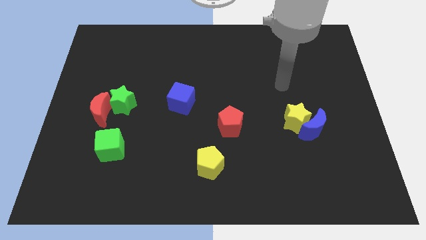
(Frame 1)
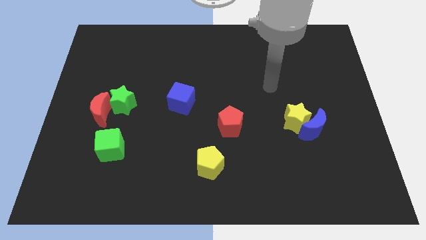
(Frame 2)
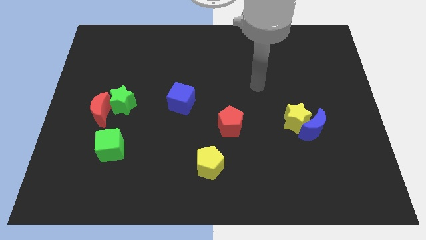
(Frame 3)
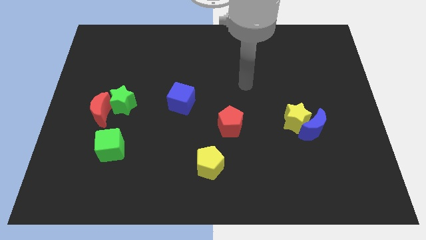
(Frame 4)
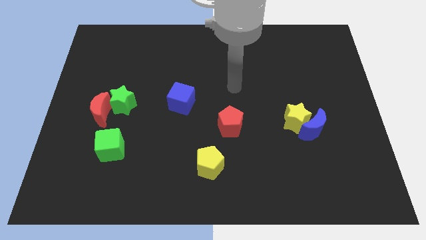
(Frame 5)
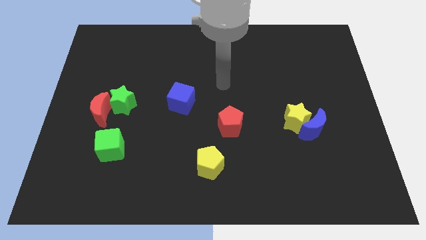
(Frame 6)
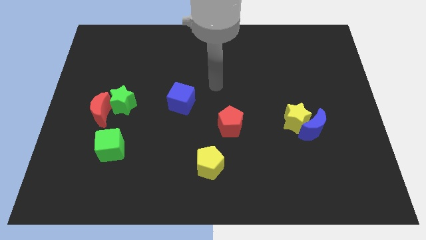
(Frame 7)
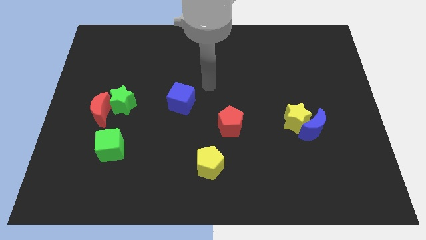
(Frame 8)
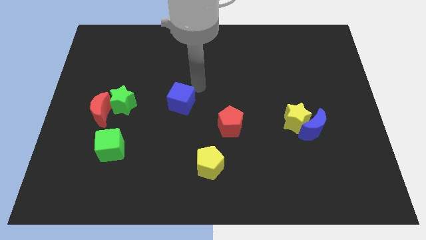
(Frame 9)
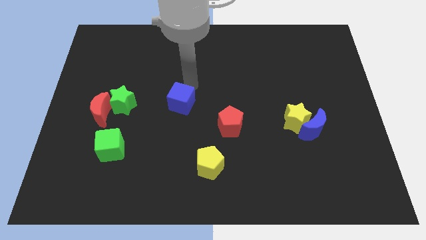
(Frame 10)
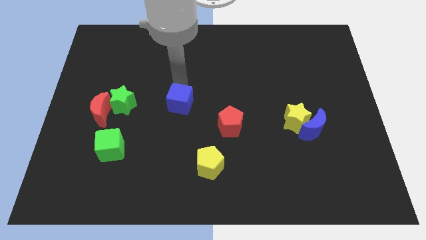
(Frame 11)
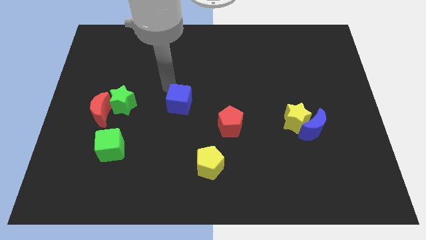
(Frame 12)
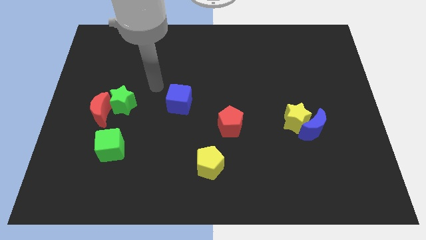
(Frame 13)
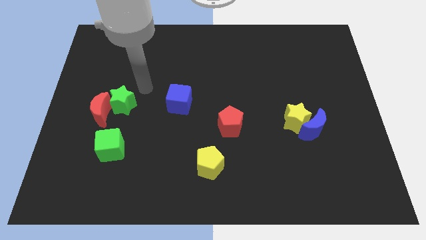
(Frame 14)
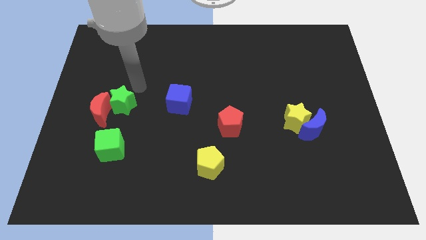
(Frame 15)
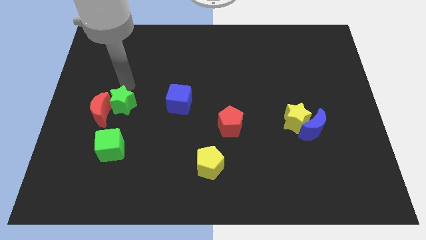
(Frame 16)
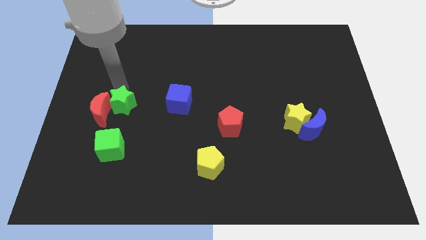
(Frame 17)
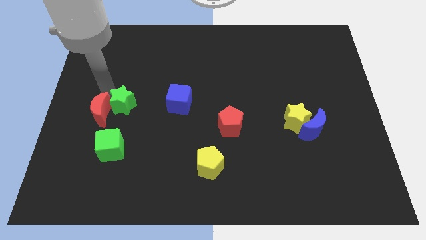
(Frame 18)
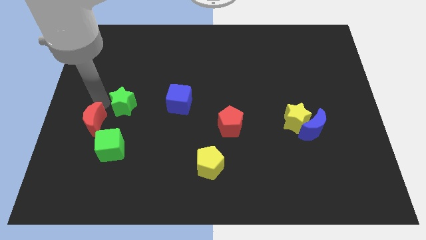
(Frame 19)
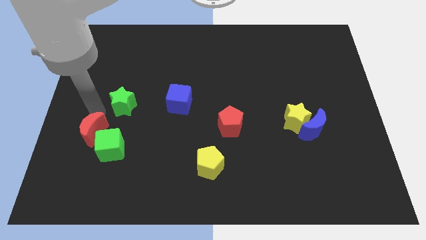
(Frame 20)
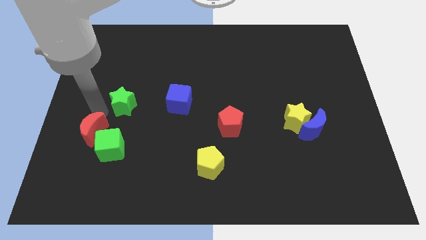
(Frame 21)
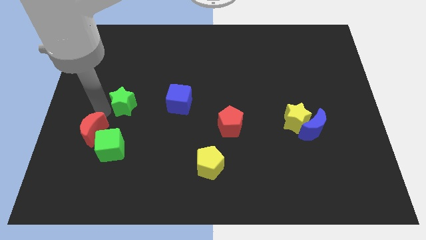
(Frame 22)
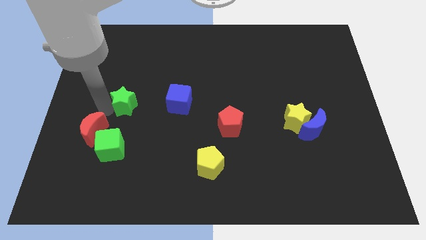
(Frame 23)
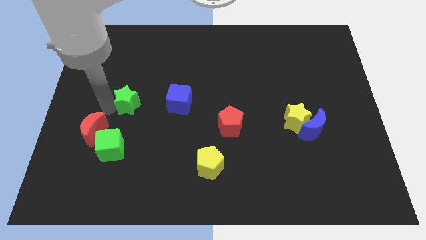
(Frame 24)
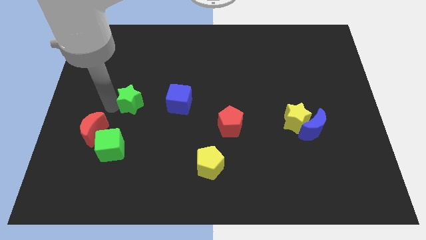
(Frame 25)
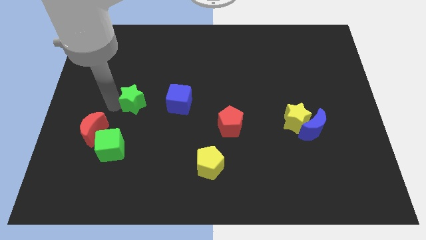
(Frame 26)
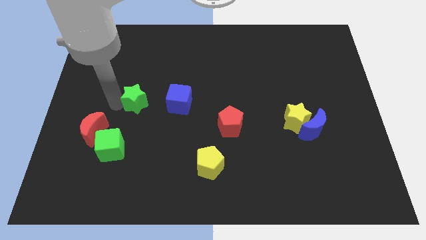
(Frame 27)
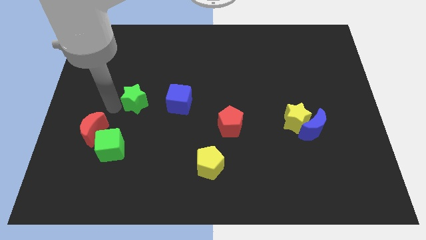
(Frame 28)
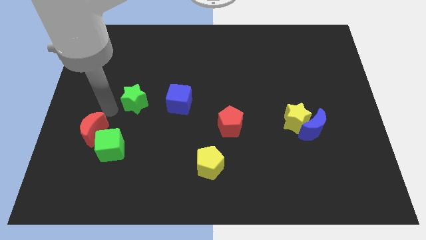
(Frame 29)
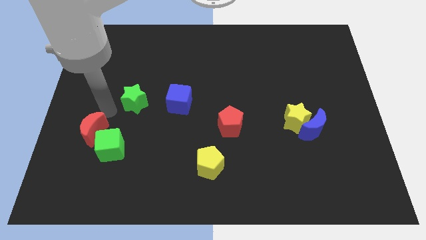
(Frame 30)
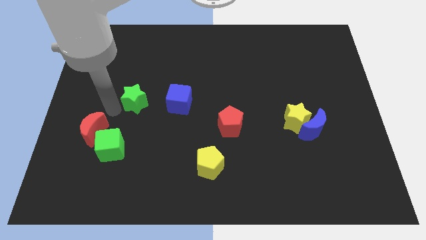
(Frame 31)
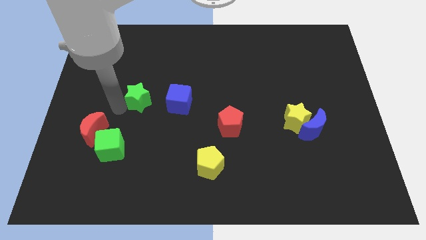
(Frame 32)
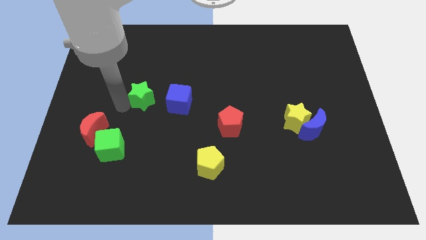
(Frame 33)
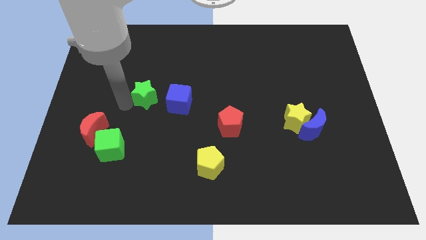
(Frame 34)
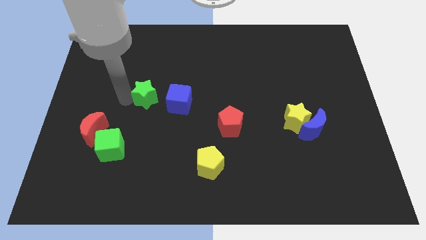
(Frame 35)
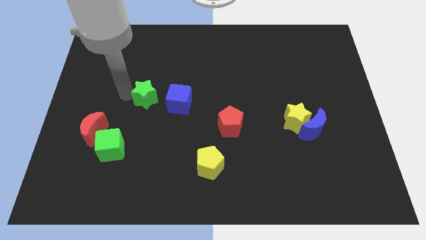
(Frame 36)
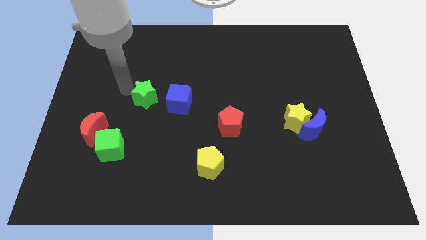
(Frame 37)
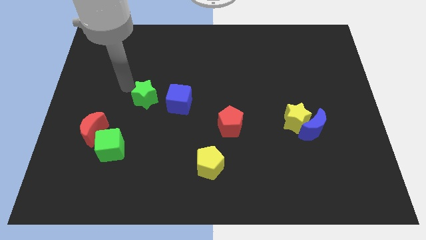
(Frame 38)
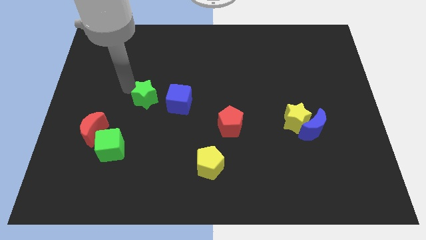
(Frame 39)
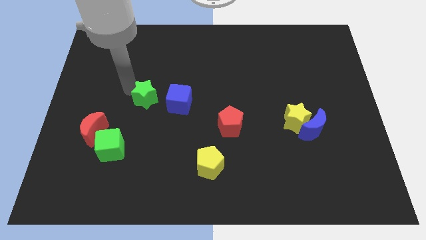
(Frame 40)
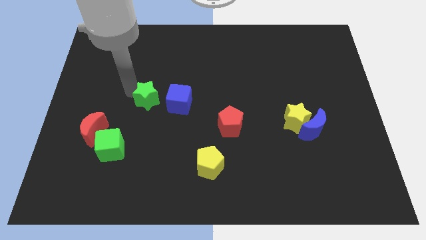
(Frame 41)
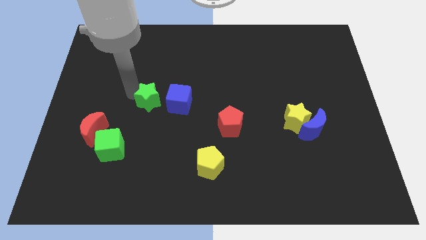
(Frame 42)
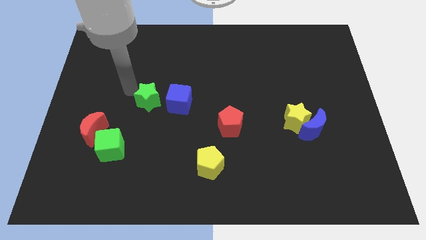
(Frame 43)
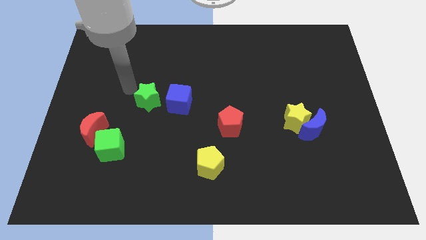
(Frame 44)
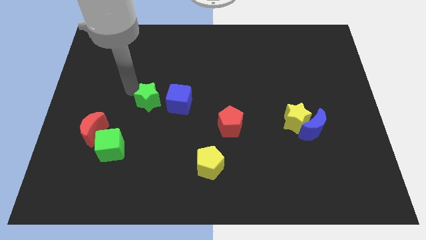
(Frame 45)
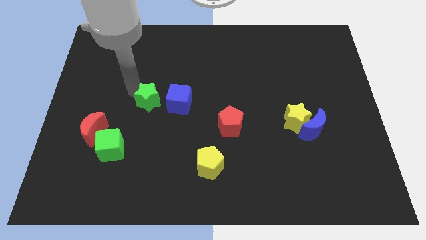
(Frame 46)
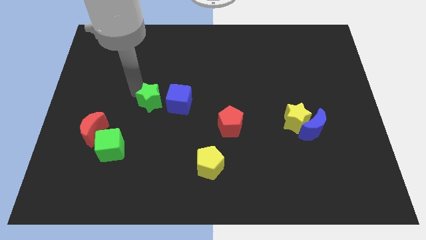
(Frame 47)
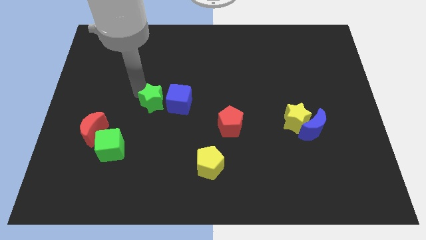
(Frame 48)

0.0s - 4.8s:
push the green star to the right a little

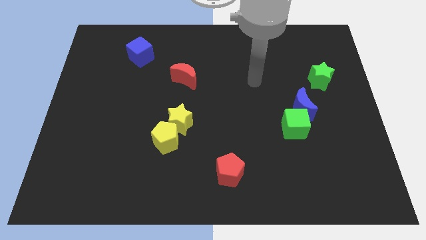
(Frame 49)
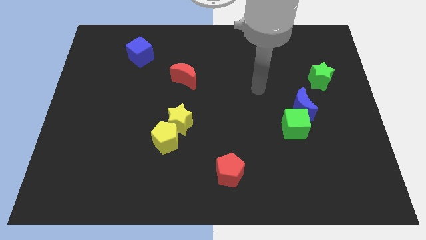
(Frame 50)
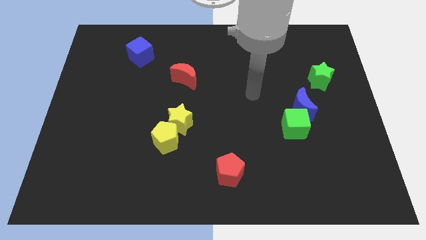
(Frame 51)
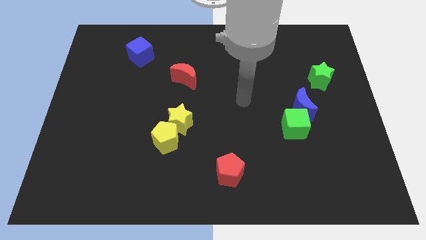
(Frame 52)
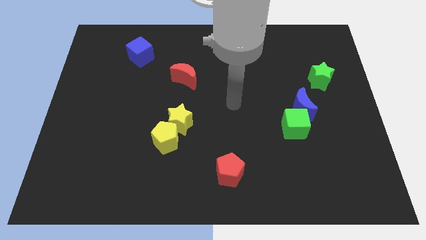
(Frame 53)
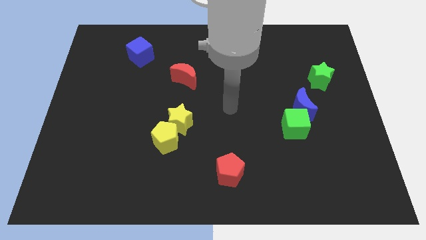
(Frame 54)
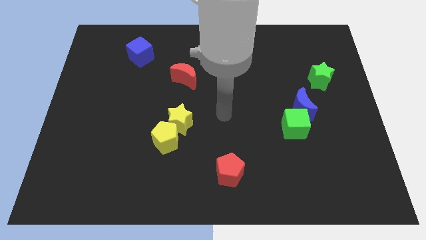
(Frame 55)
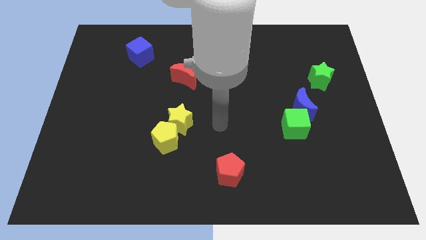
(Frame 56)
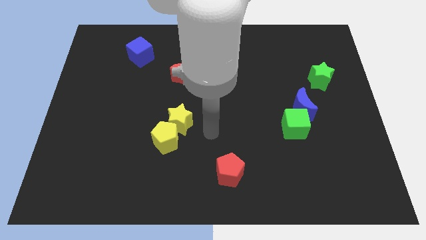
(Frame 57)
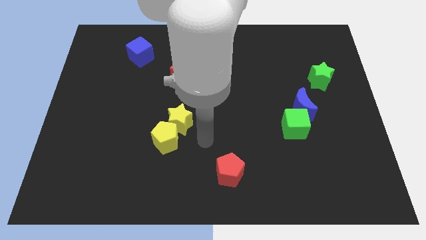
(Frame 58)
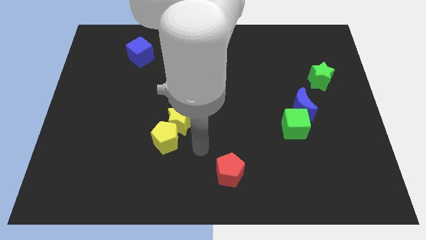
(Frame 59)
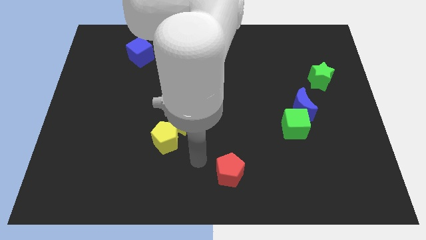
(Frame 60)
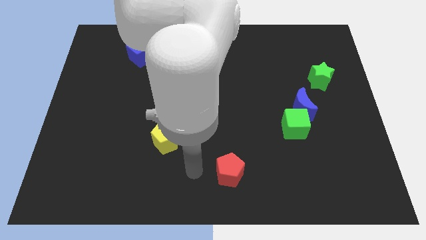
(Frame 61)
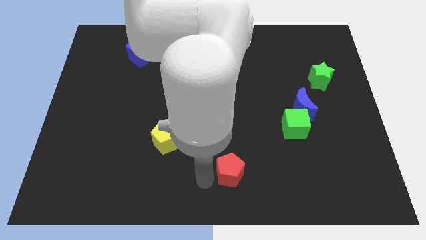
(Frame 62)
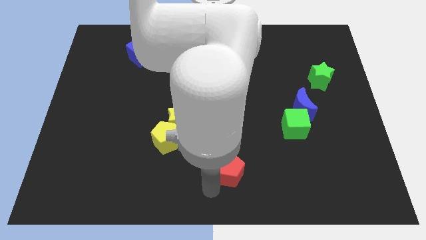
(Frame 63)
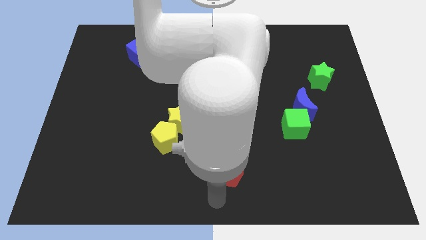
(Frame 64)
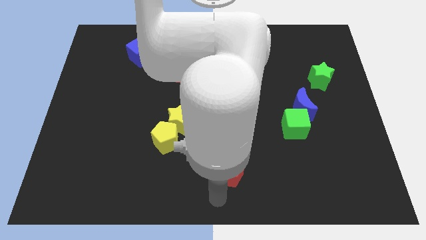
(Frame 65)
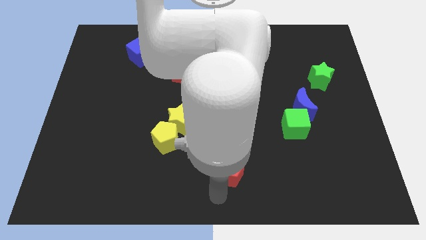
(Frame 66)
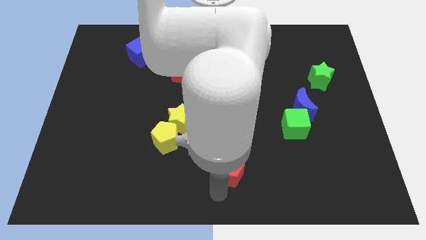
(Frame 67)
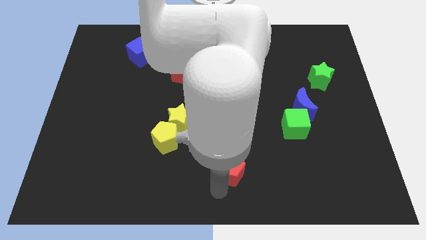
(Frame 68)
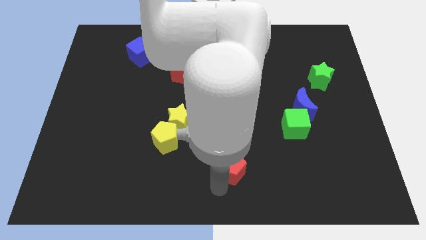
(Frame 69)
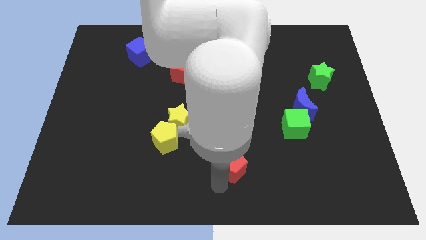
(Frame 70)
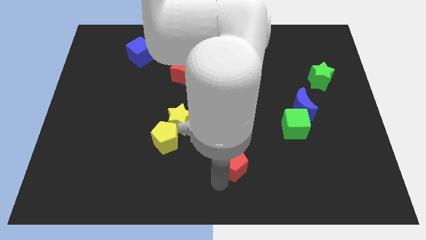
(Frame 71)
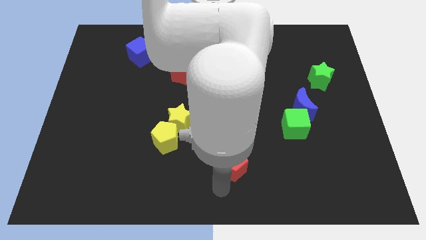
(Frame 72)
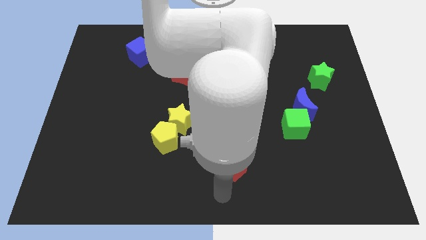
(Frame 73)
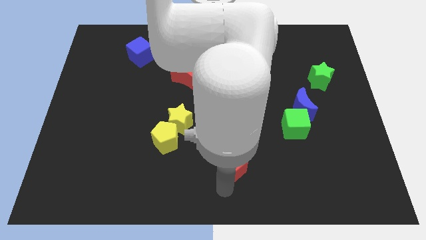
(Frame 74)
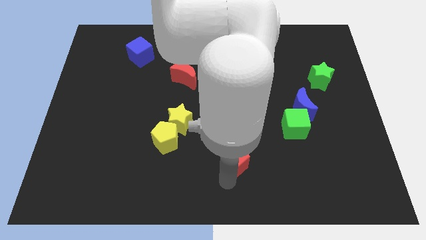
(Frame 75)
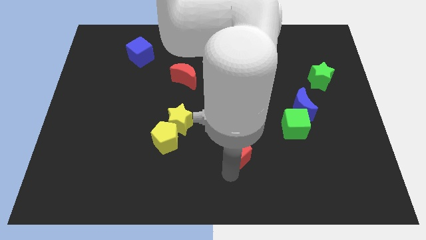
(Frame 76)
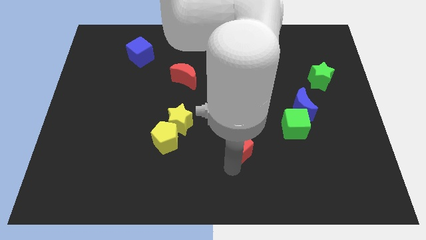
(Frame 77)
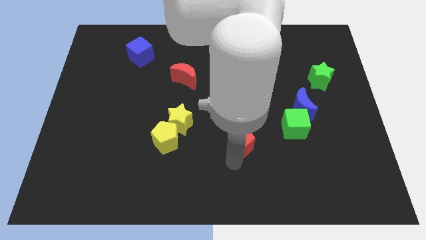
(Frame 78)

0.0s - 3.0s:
slightly move the red pentagon upwards

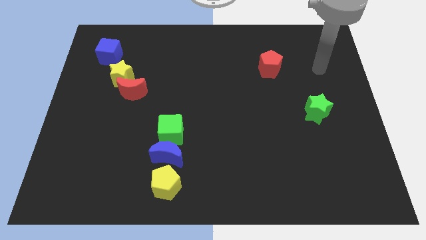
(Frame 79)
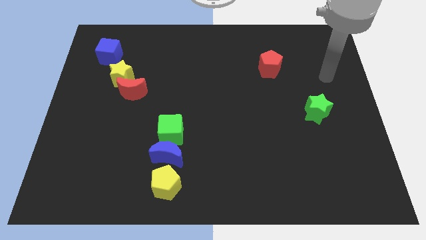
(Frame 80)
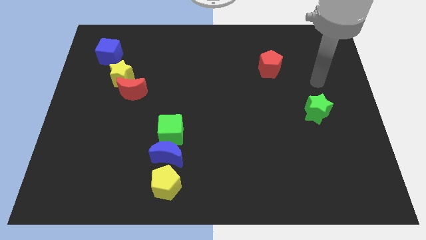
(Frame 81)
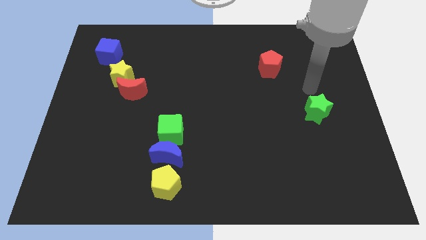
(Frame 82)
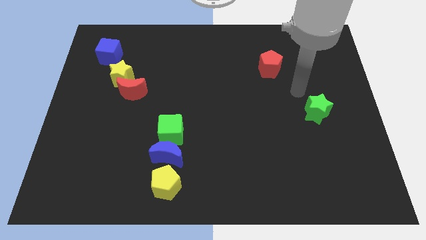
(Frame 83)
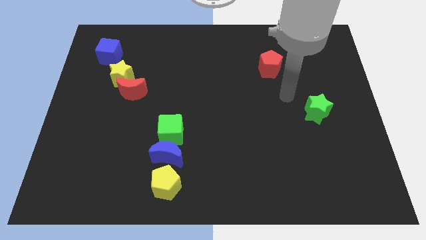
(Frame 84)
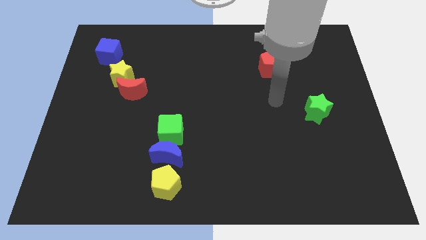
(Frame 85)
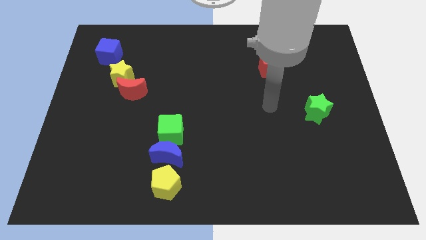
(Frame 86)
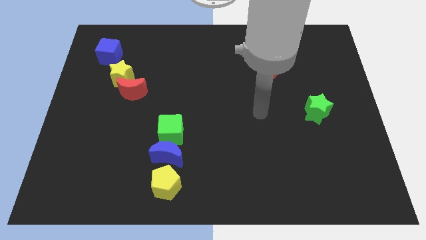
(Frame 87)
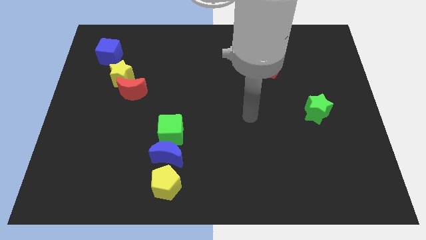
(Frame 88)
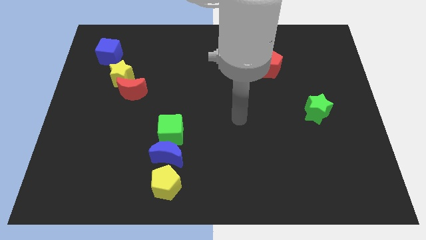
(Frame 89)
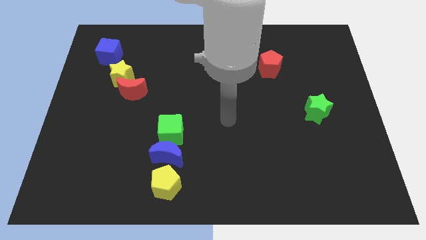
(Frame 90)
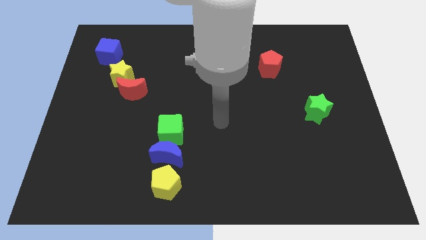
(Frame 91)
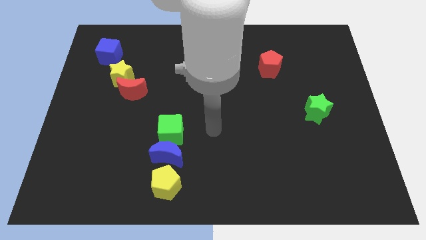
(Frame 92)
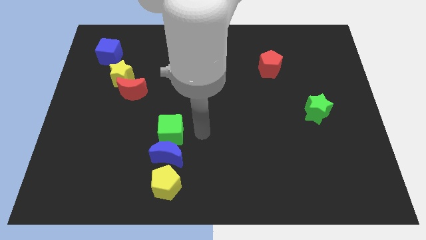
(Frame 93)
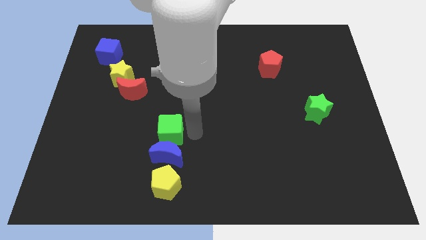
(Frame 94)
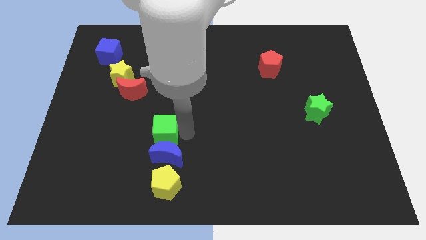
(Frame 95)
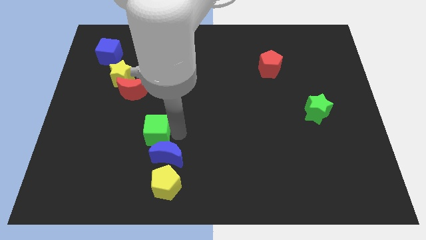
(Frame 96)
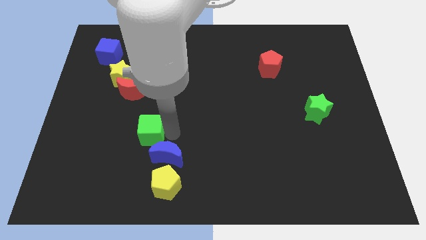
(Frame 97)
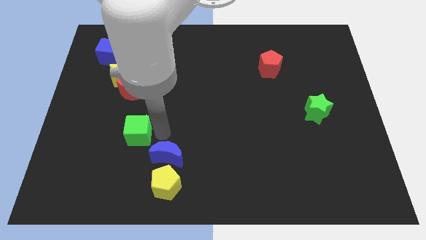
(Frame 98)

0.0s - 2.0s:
slide the green cube a little to the left
